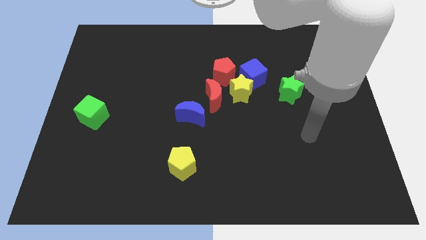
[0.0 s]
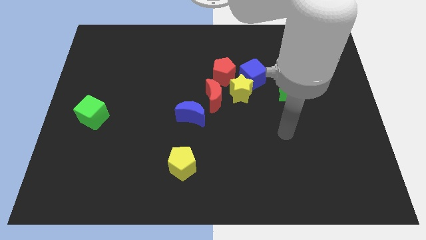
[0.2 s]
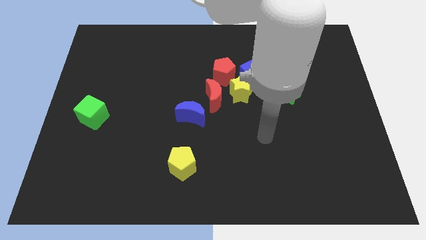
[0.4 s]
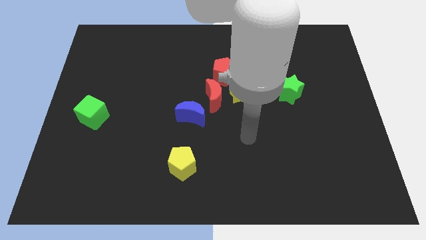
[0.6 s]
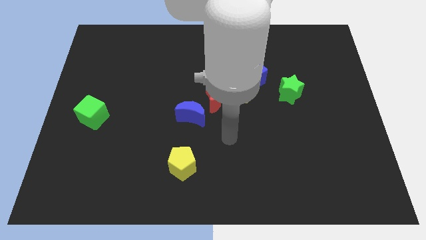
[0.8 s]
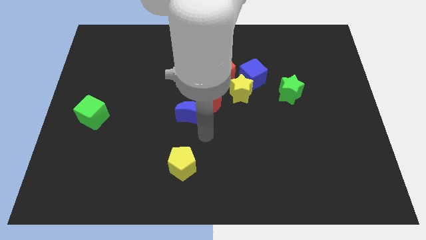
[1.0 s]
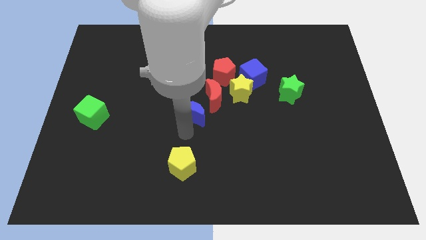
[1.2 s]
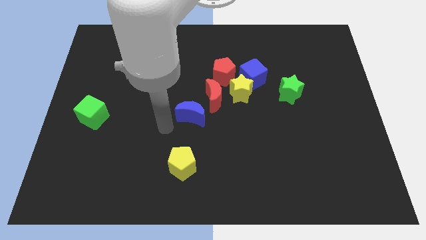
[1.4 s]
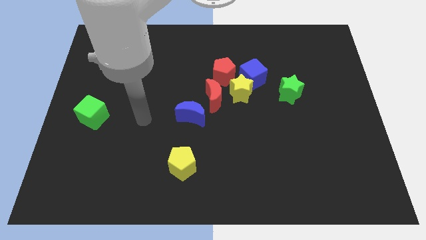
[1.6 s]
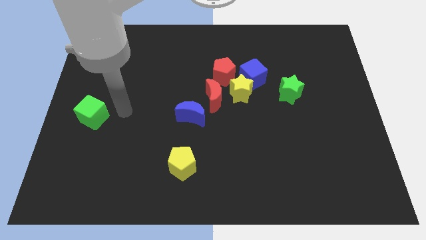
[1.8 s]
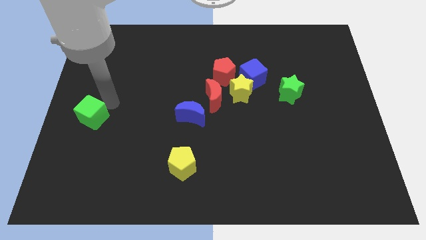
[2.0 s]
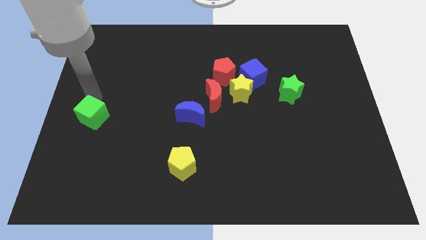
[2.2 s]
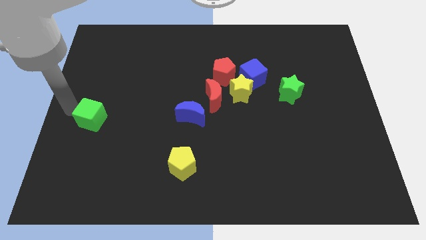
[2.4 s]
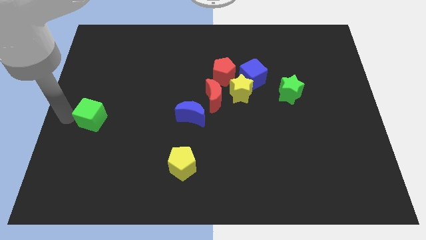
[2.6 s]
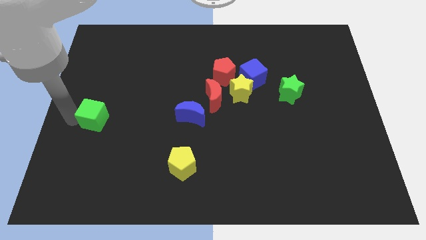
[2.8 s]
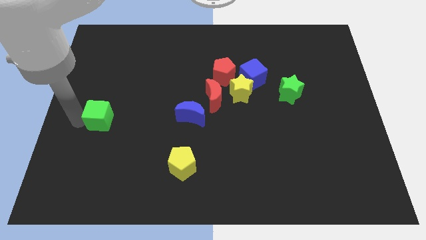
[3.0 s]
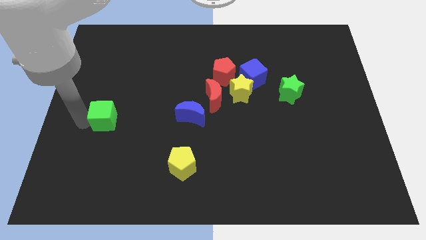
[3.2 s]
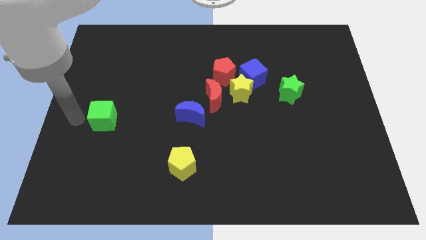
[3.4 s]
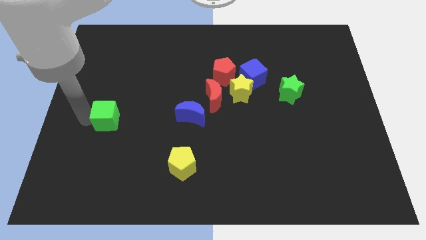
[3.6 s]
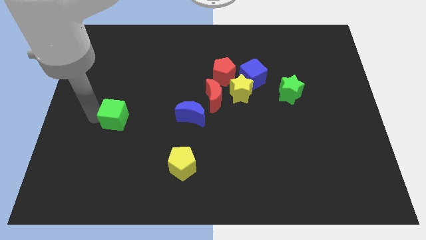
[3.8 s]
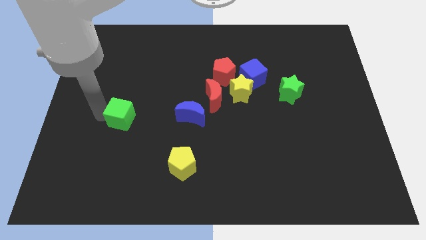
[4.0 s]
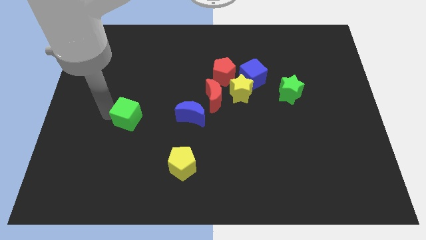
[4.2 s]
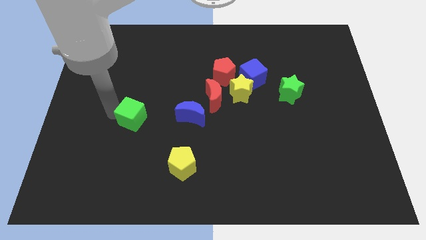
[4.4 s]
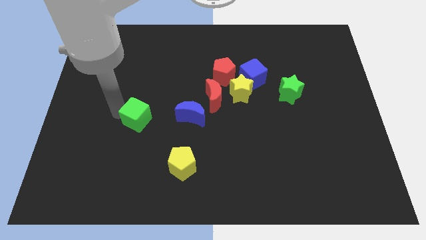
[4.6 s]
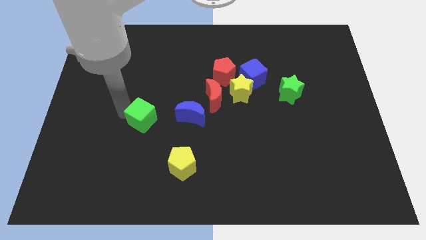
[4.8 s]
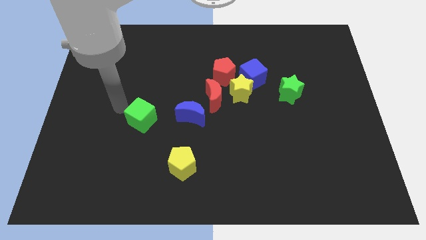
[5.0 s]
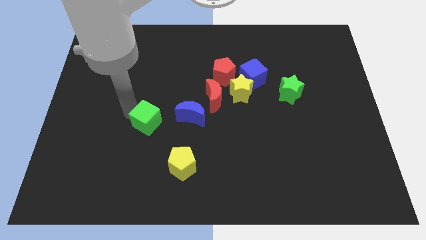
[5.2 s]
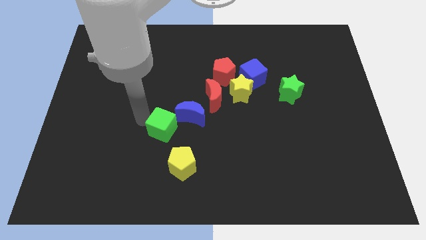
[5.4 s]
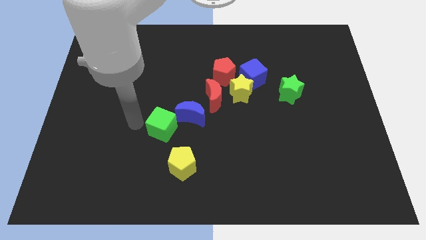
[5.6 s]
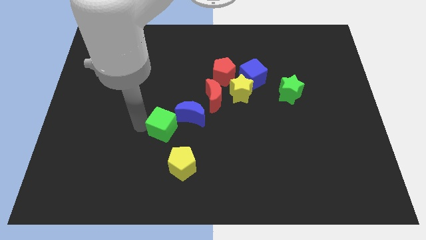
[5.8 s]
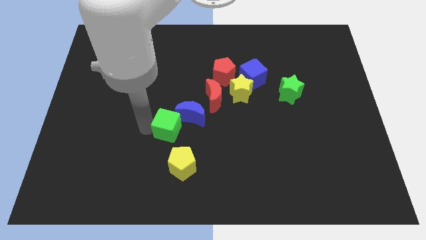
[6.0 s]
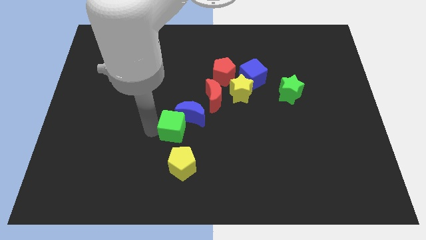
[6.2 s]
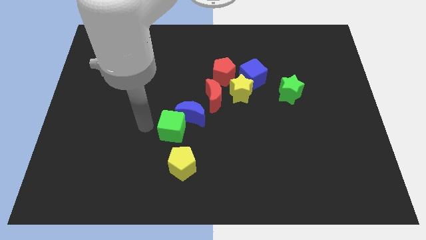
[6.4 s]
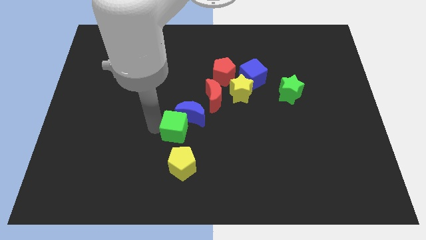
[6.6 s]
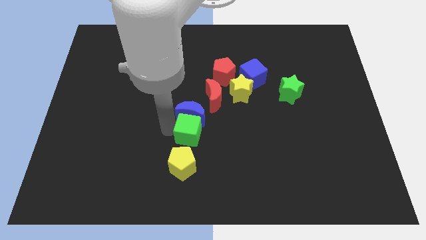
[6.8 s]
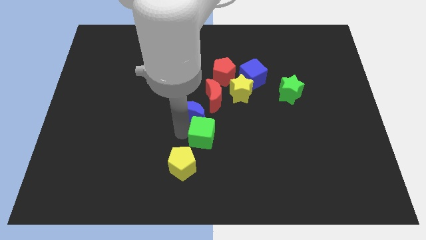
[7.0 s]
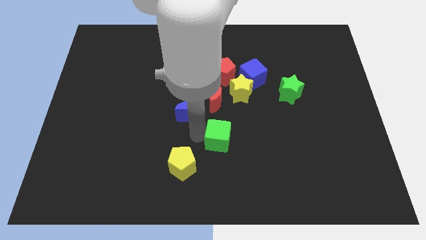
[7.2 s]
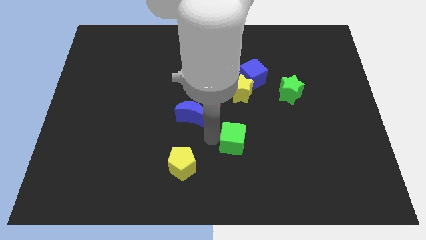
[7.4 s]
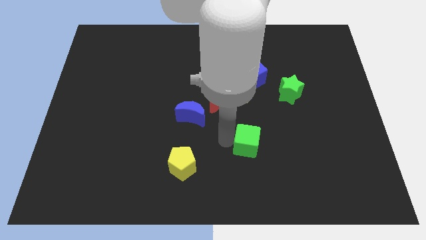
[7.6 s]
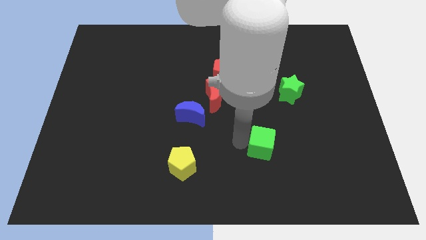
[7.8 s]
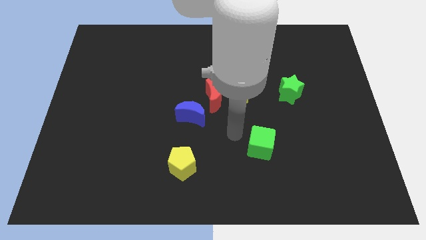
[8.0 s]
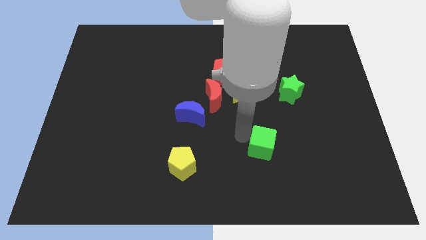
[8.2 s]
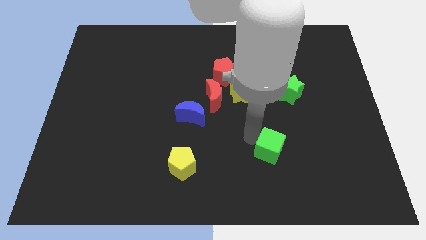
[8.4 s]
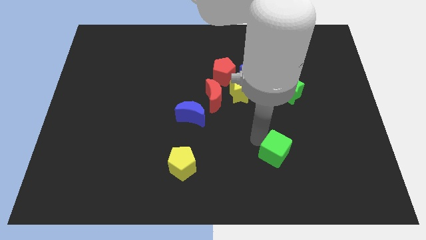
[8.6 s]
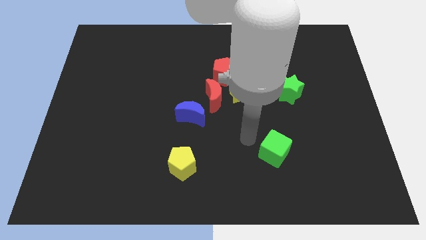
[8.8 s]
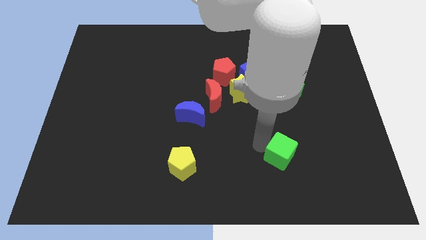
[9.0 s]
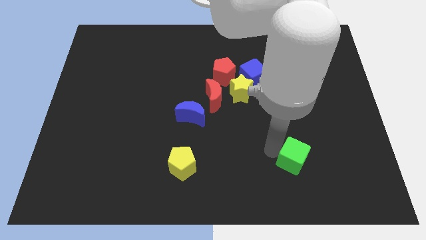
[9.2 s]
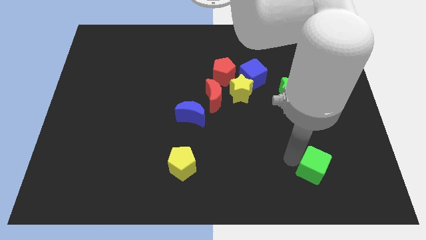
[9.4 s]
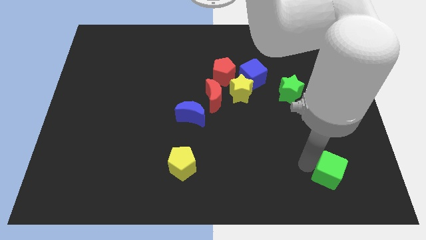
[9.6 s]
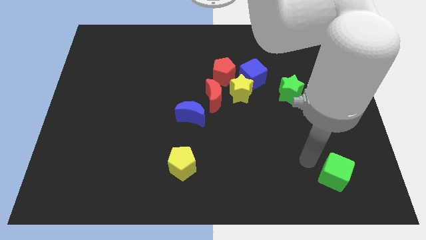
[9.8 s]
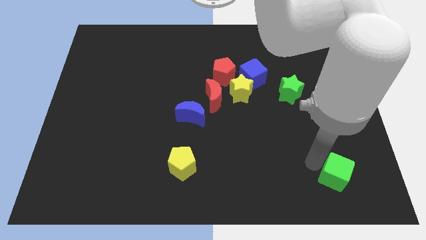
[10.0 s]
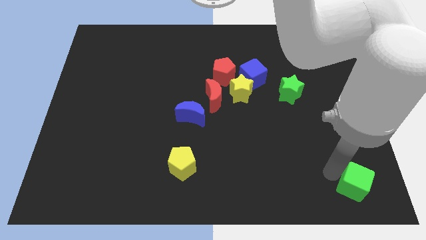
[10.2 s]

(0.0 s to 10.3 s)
put the green cube to the lower right corner

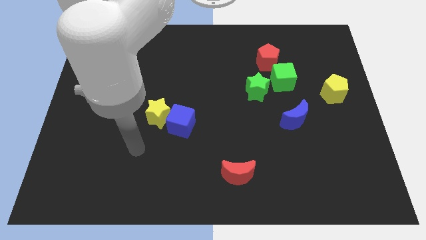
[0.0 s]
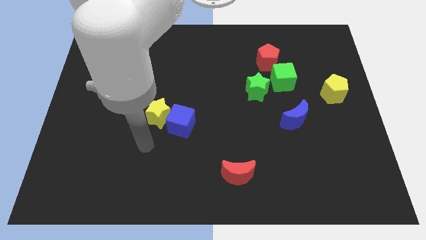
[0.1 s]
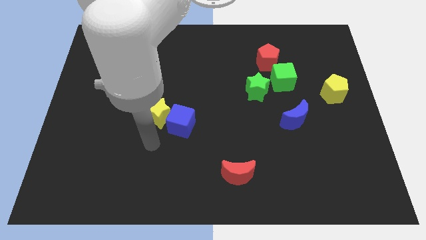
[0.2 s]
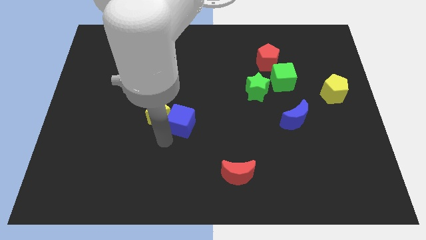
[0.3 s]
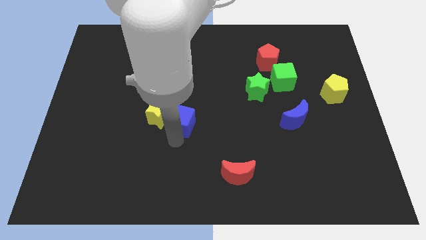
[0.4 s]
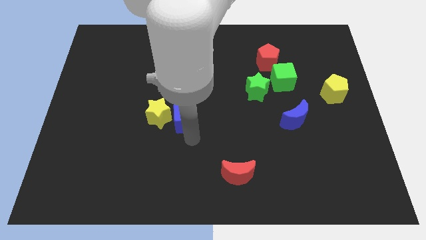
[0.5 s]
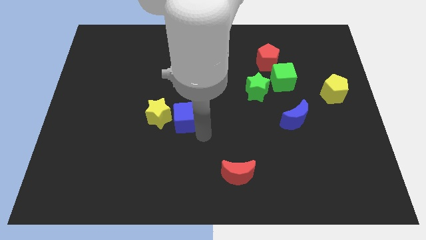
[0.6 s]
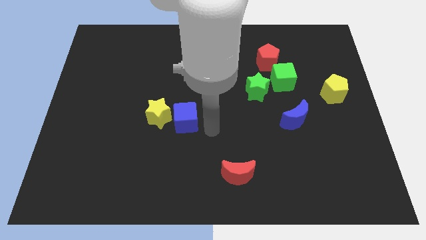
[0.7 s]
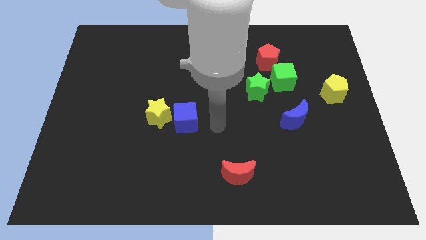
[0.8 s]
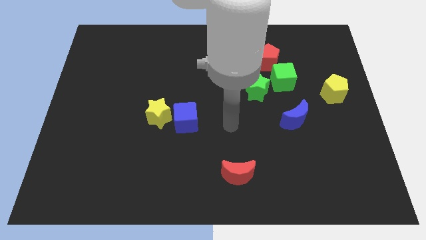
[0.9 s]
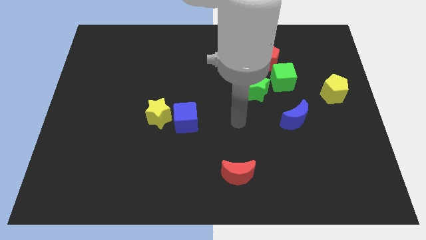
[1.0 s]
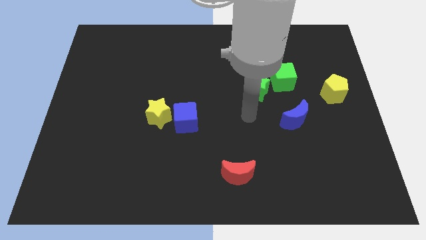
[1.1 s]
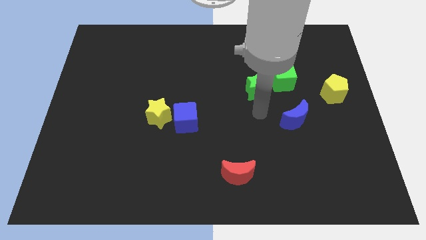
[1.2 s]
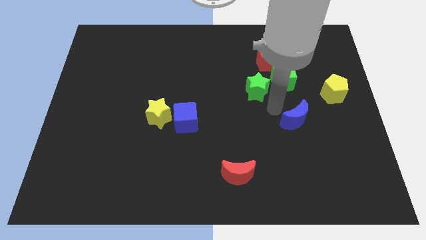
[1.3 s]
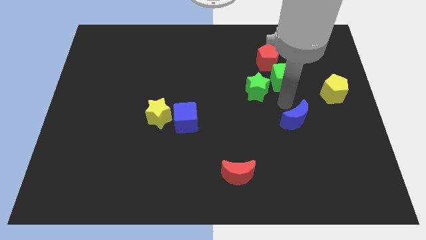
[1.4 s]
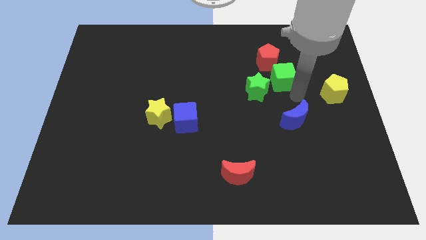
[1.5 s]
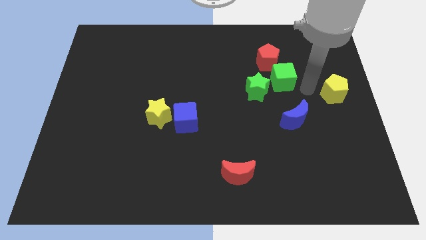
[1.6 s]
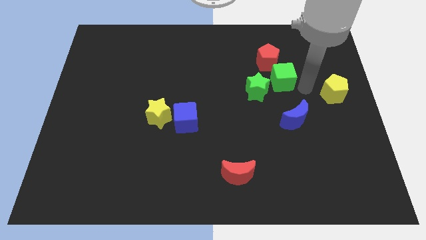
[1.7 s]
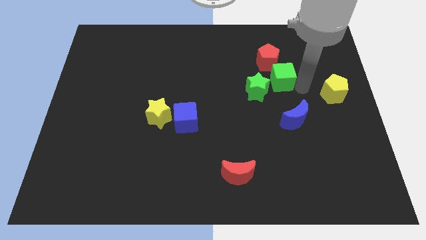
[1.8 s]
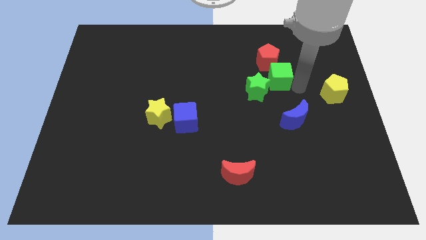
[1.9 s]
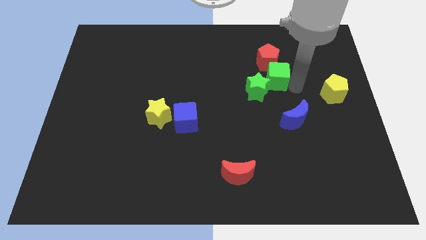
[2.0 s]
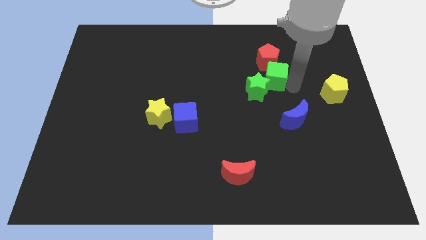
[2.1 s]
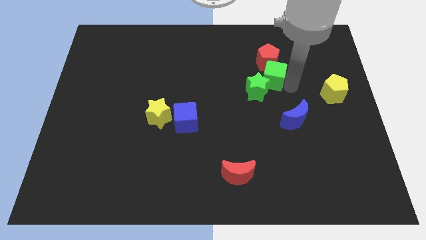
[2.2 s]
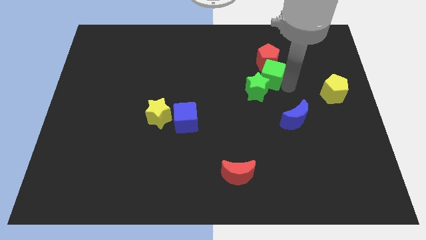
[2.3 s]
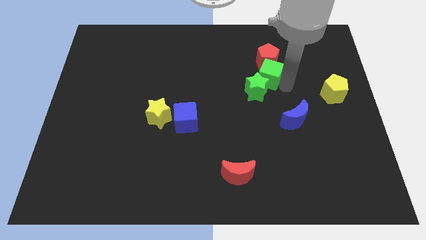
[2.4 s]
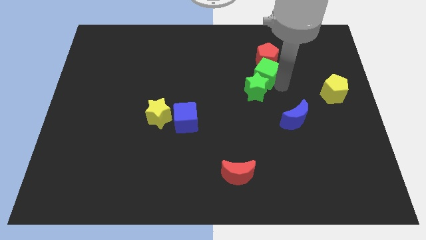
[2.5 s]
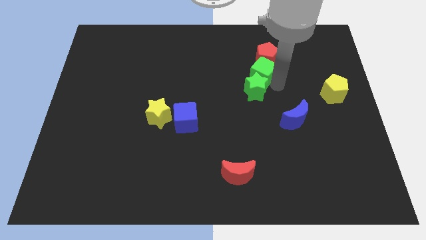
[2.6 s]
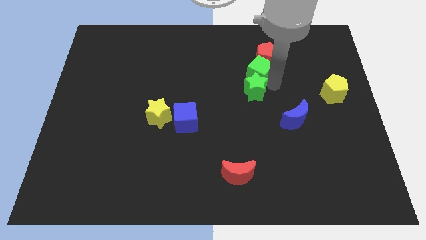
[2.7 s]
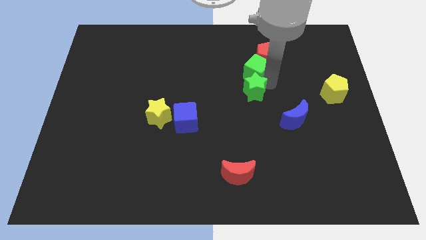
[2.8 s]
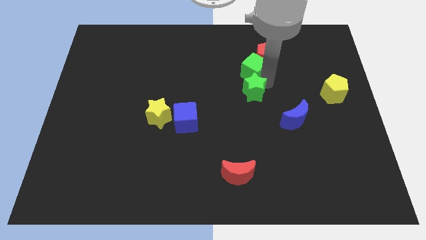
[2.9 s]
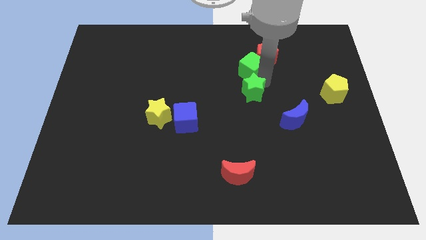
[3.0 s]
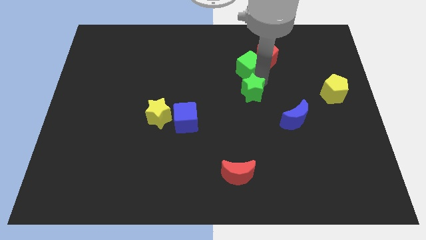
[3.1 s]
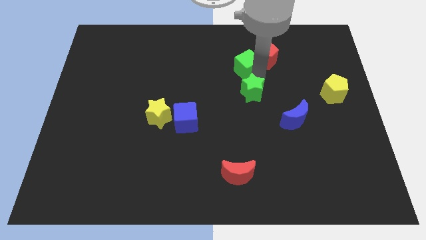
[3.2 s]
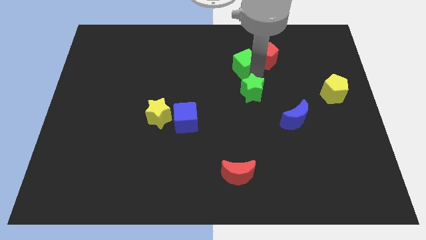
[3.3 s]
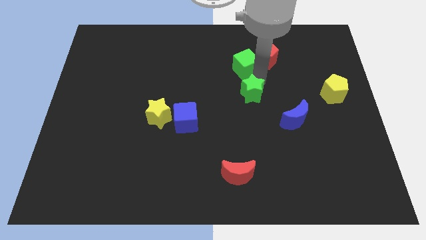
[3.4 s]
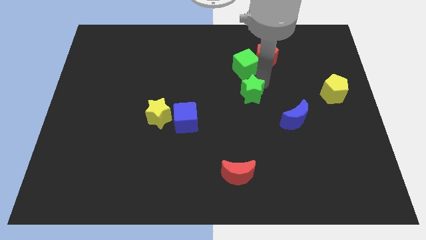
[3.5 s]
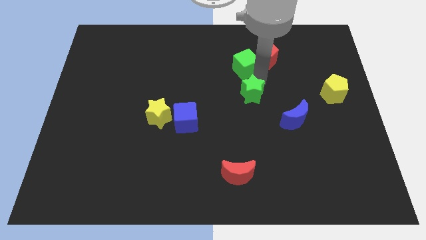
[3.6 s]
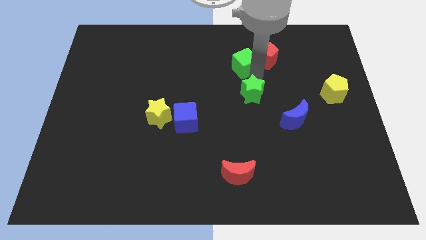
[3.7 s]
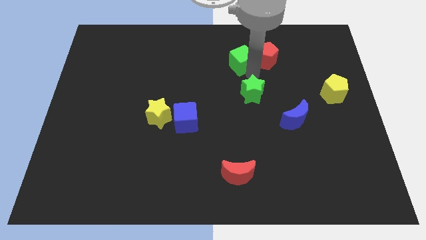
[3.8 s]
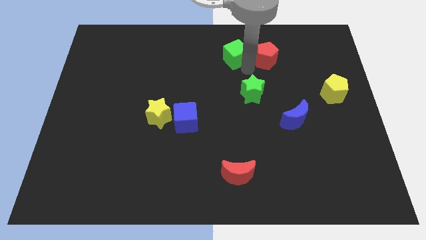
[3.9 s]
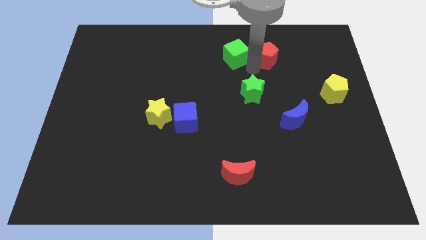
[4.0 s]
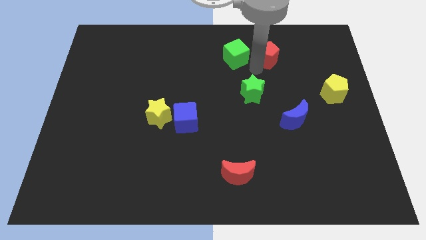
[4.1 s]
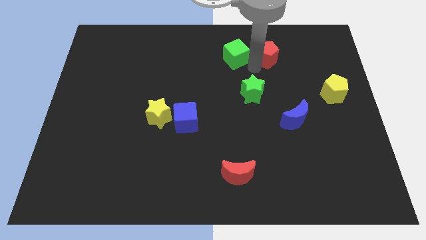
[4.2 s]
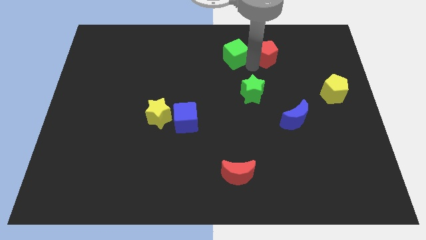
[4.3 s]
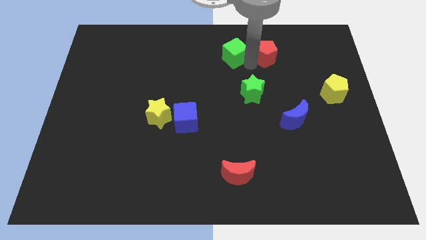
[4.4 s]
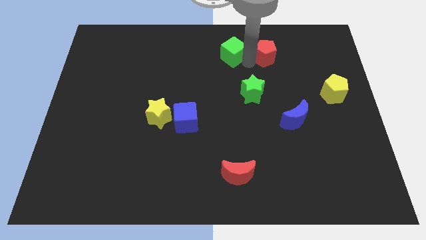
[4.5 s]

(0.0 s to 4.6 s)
move the green cube to the top side
